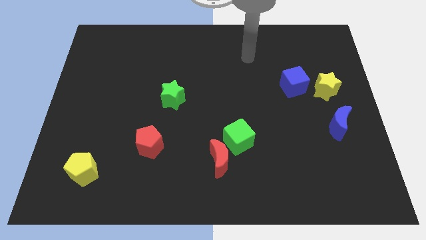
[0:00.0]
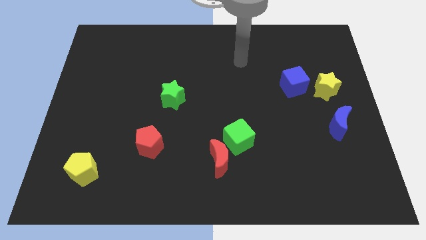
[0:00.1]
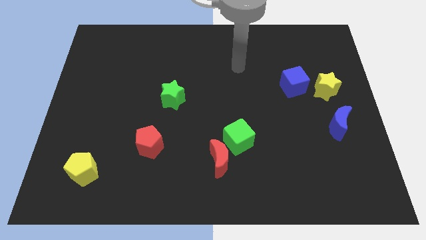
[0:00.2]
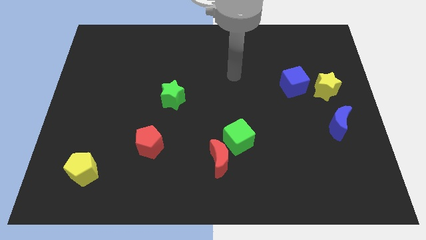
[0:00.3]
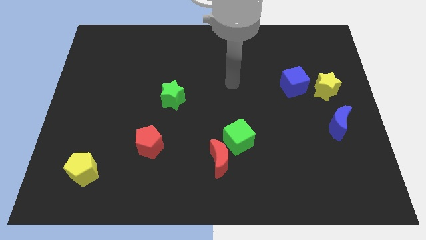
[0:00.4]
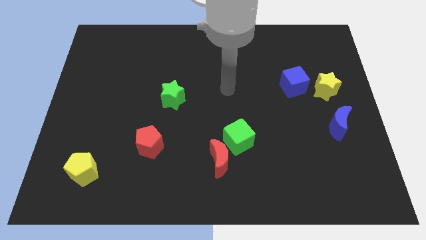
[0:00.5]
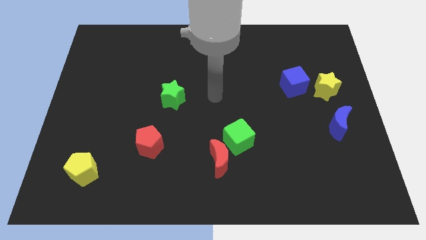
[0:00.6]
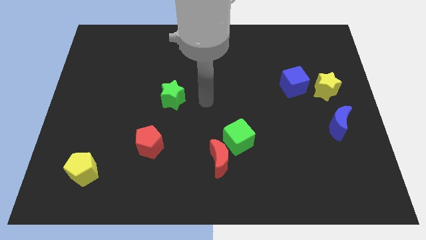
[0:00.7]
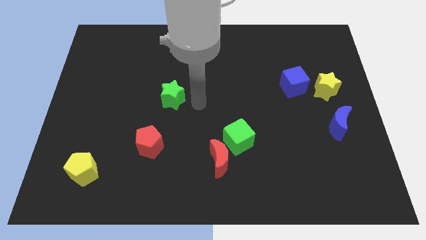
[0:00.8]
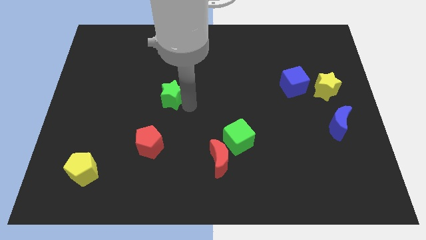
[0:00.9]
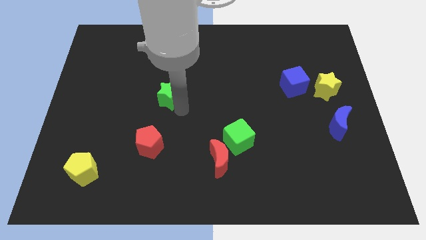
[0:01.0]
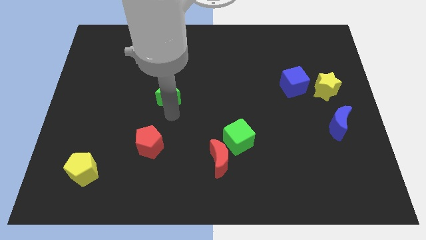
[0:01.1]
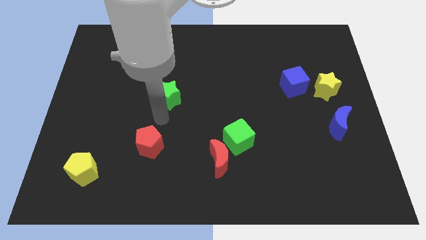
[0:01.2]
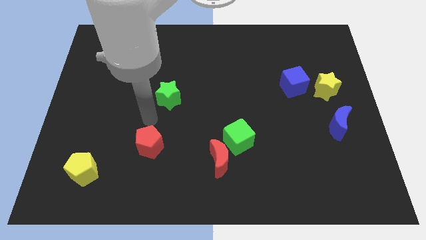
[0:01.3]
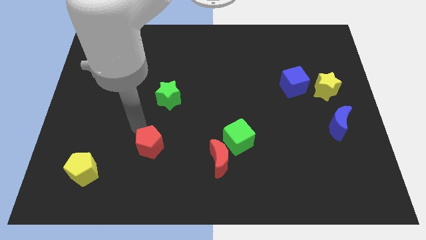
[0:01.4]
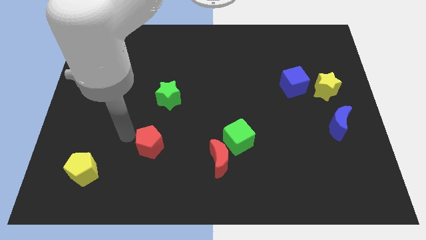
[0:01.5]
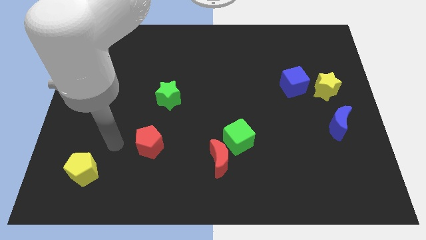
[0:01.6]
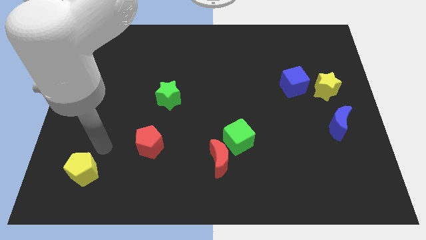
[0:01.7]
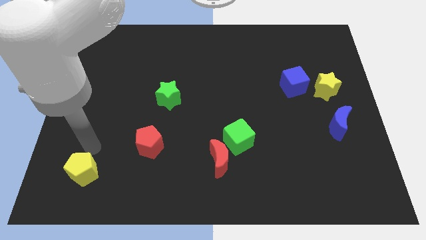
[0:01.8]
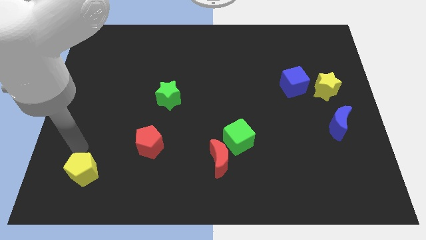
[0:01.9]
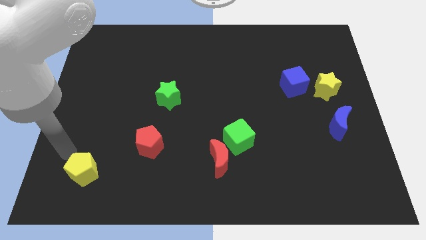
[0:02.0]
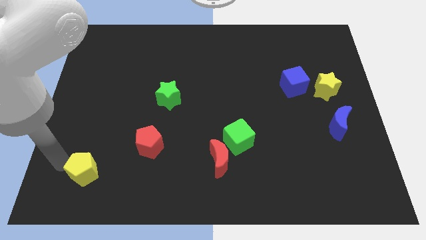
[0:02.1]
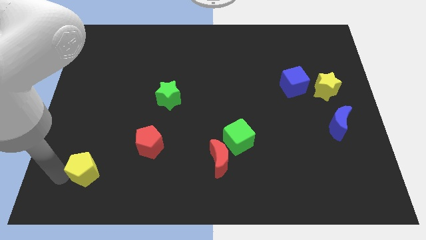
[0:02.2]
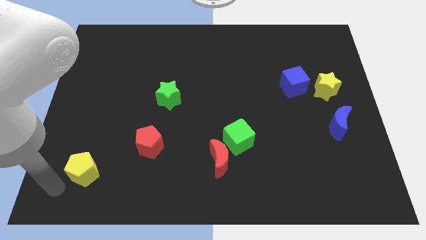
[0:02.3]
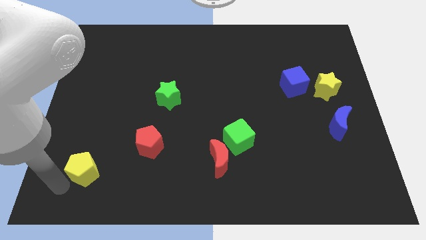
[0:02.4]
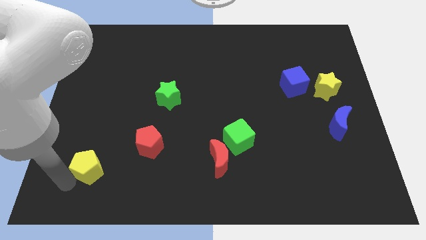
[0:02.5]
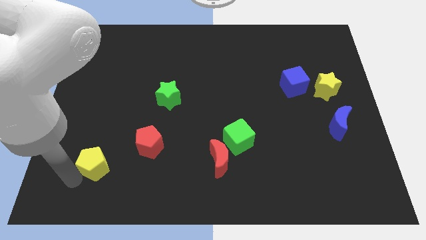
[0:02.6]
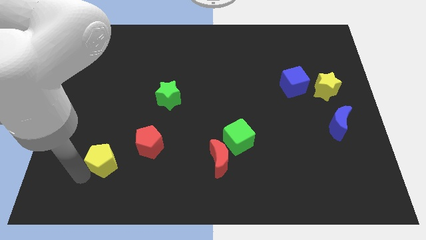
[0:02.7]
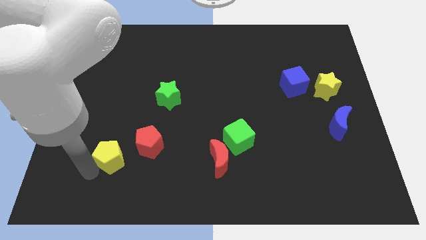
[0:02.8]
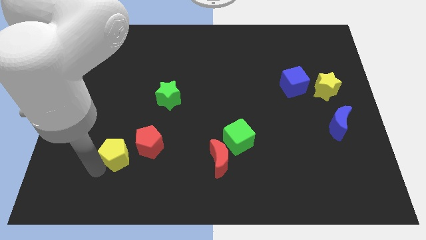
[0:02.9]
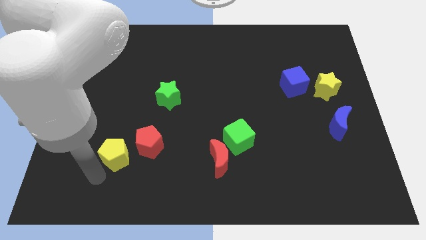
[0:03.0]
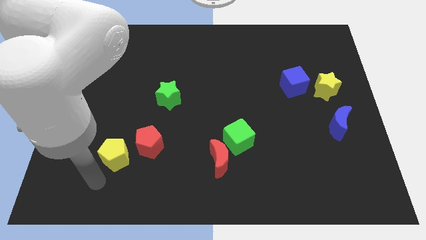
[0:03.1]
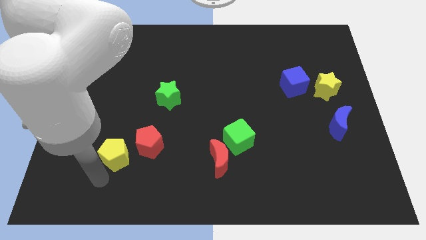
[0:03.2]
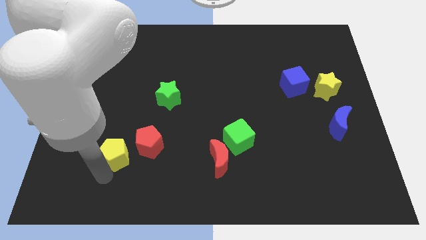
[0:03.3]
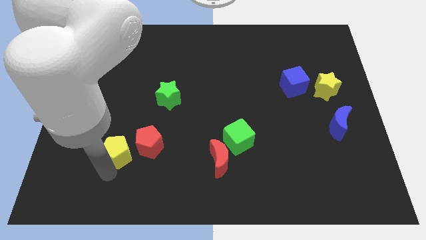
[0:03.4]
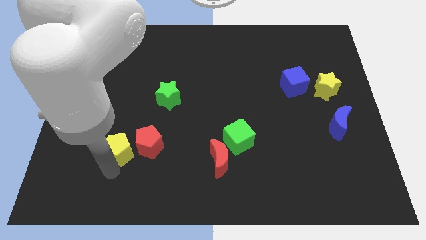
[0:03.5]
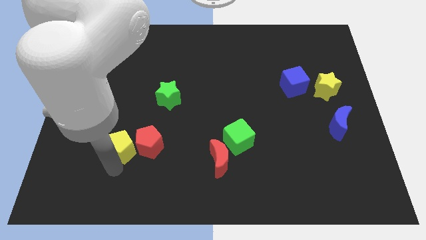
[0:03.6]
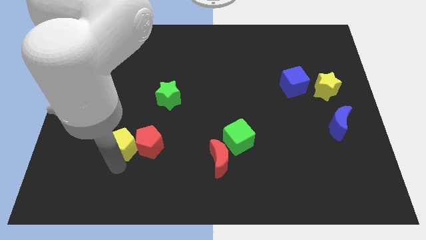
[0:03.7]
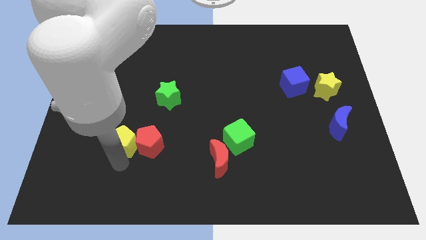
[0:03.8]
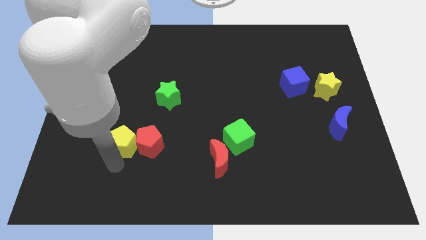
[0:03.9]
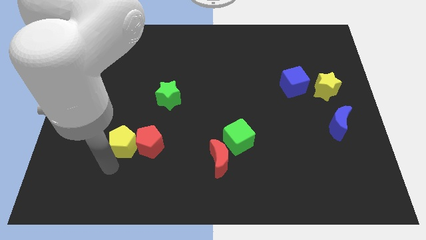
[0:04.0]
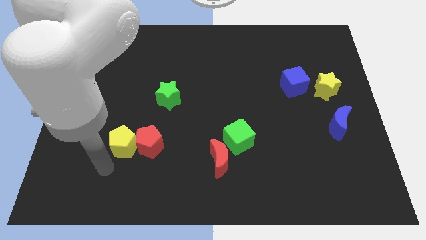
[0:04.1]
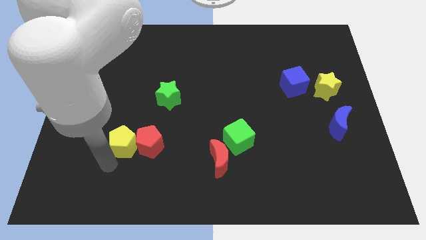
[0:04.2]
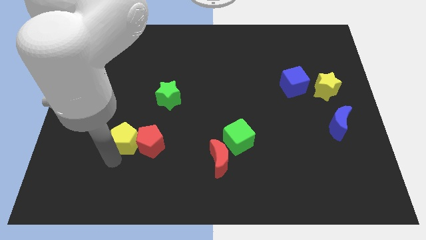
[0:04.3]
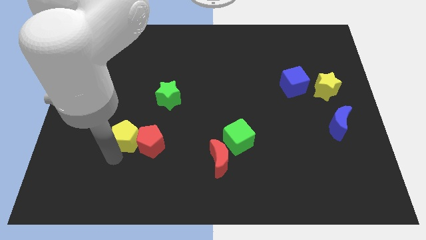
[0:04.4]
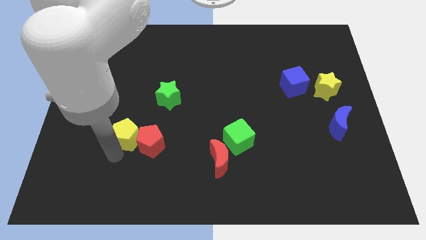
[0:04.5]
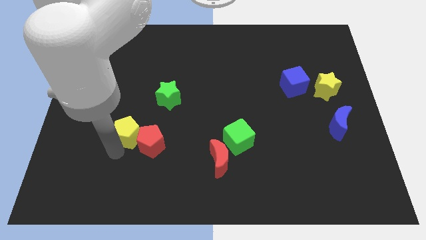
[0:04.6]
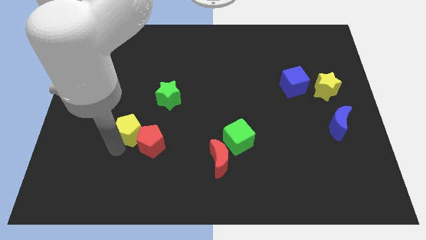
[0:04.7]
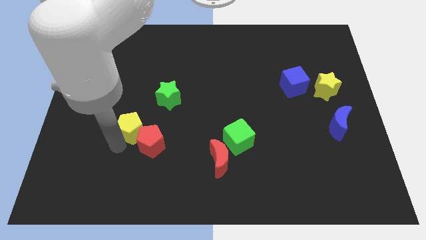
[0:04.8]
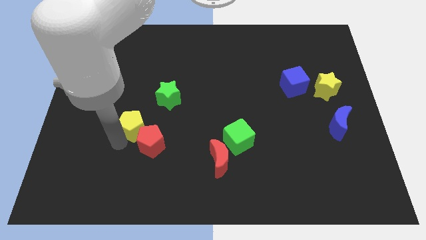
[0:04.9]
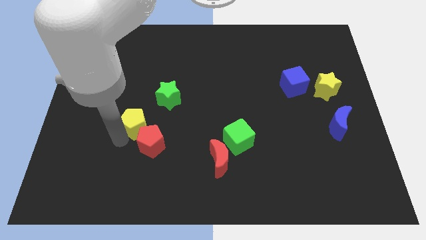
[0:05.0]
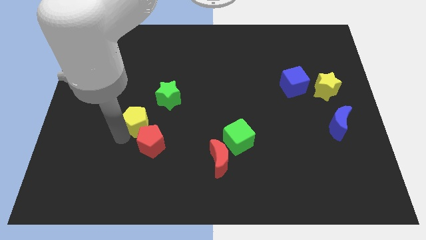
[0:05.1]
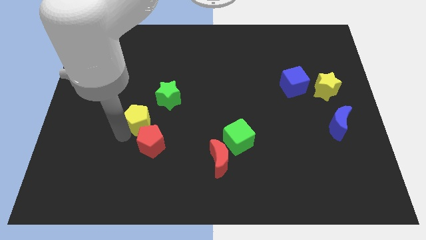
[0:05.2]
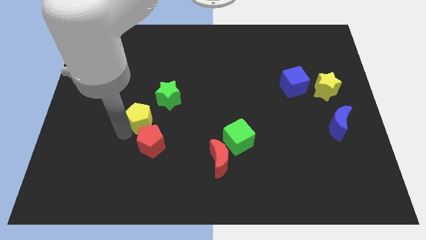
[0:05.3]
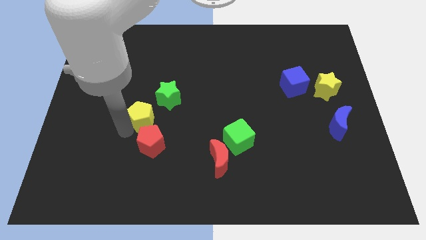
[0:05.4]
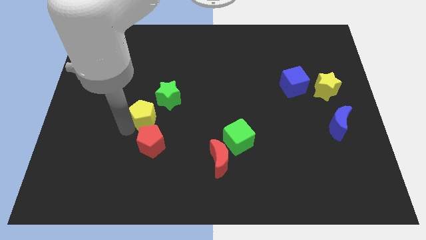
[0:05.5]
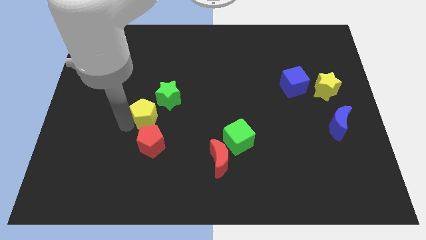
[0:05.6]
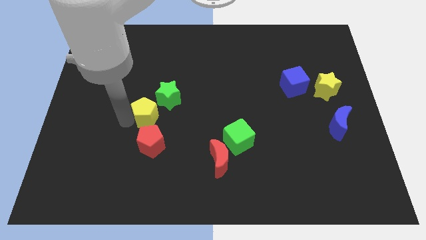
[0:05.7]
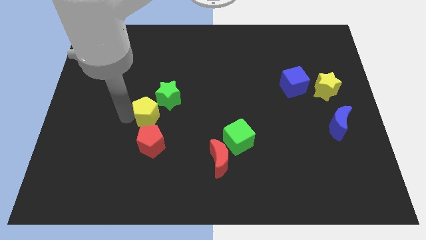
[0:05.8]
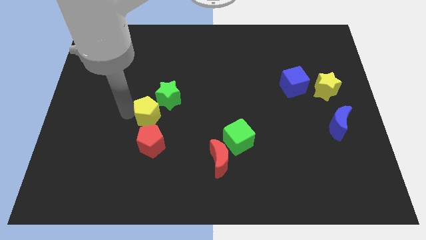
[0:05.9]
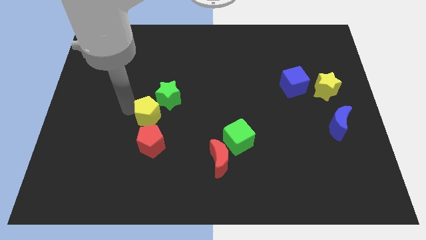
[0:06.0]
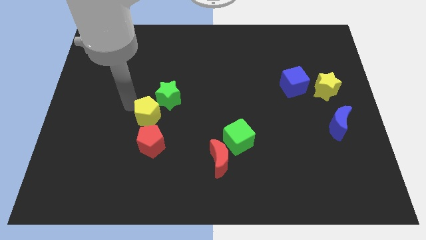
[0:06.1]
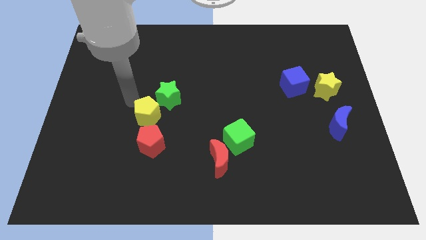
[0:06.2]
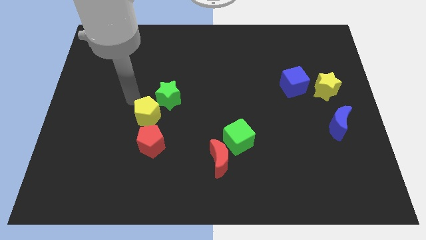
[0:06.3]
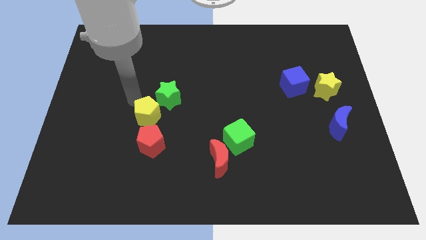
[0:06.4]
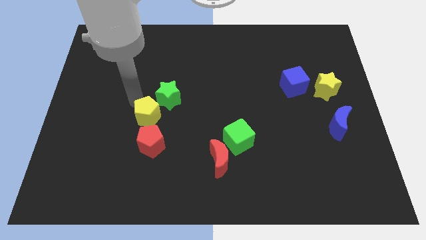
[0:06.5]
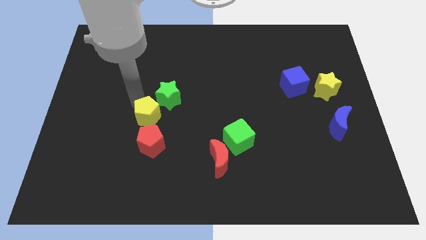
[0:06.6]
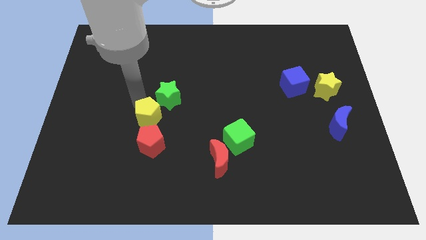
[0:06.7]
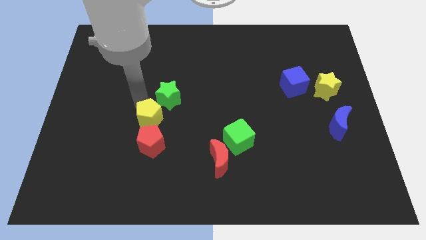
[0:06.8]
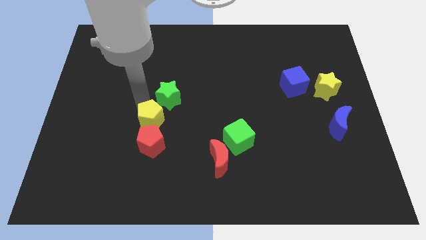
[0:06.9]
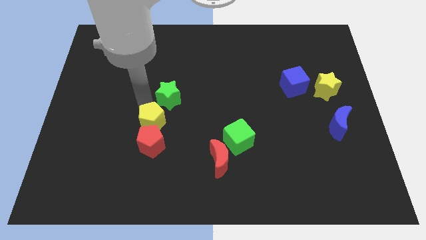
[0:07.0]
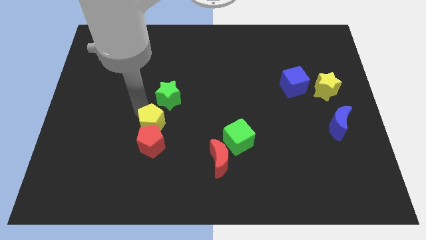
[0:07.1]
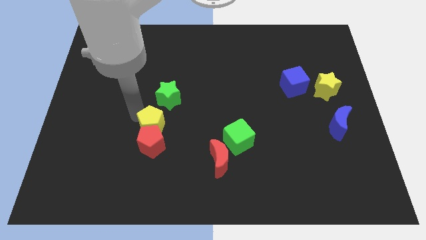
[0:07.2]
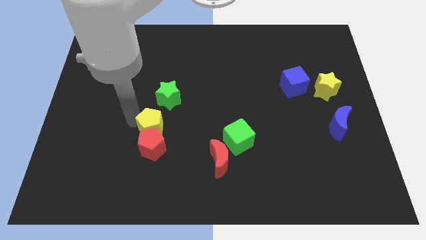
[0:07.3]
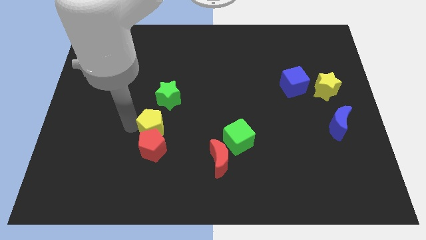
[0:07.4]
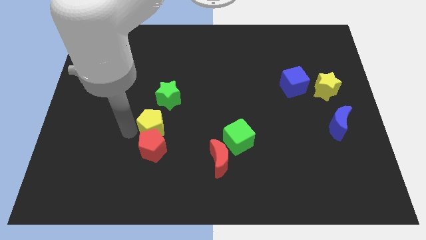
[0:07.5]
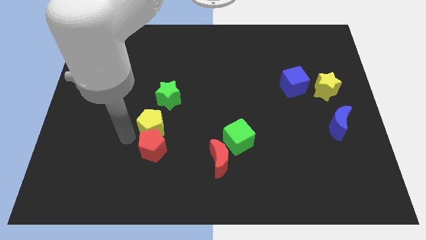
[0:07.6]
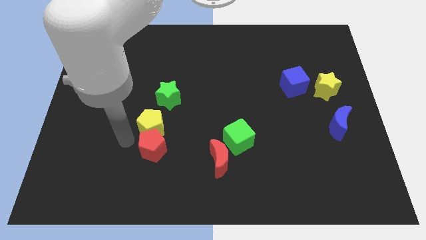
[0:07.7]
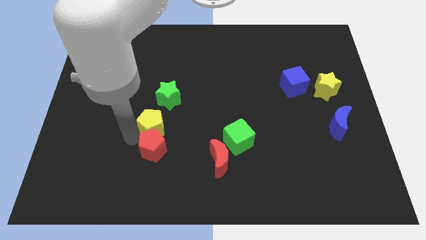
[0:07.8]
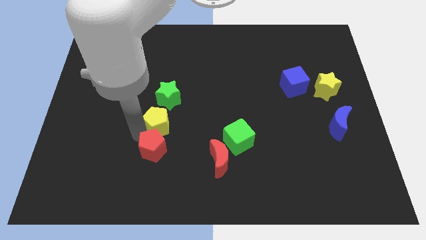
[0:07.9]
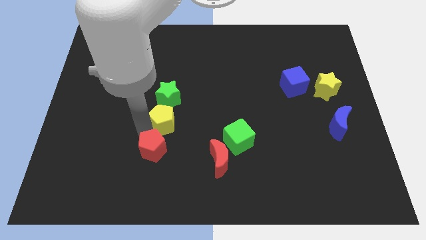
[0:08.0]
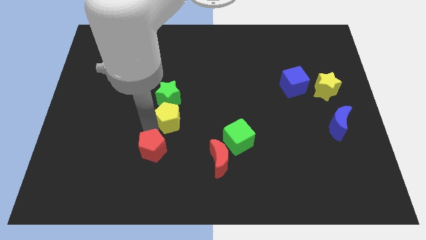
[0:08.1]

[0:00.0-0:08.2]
move the yellow pentagon to the middle of the board
